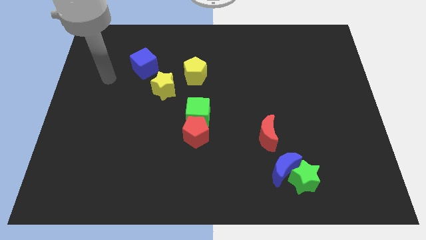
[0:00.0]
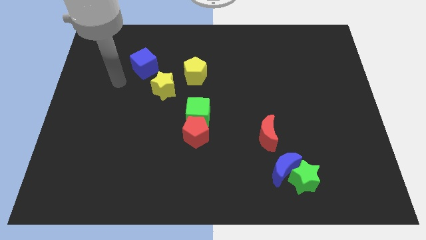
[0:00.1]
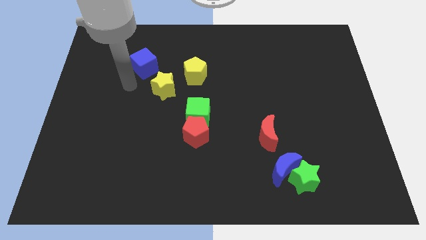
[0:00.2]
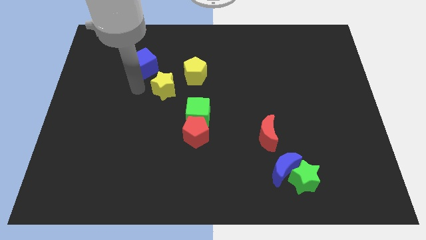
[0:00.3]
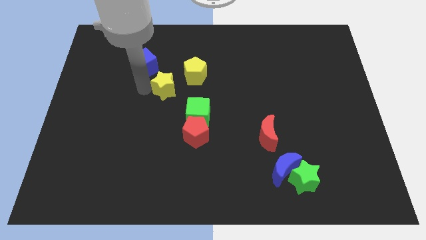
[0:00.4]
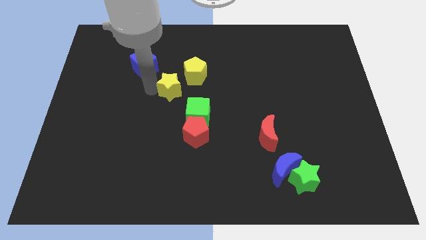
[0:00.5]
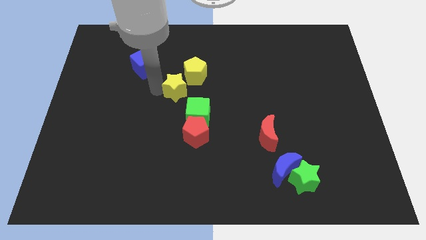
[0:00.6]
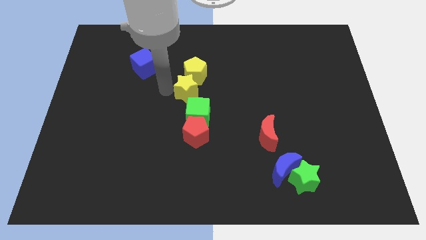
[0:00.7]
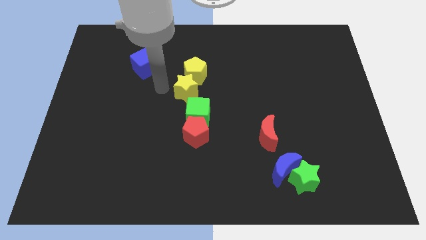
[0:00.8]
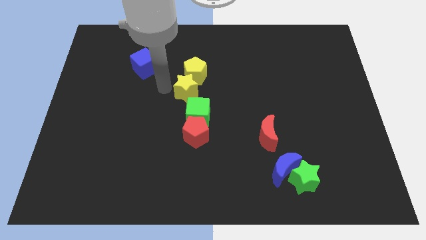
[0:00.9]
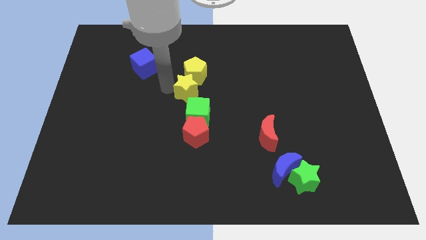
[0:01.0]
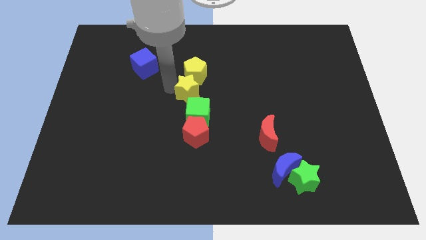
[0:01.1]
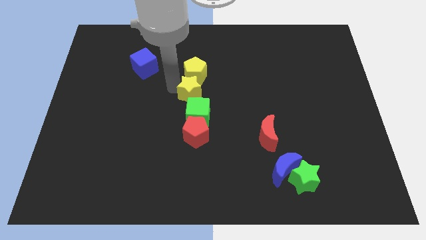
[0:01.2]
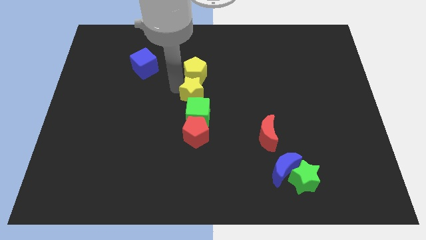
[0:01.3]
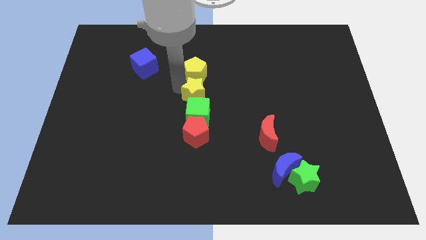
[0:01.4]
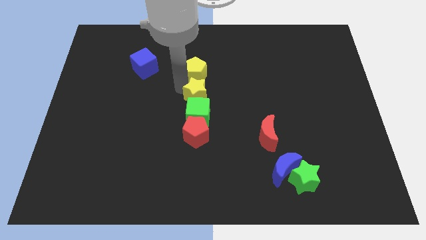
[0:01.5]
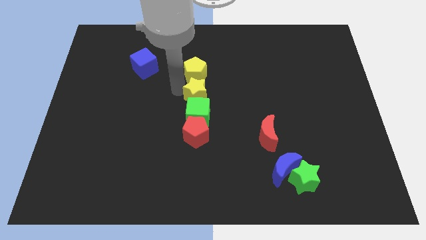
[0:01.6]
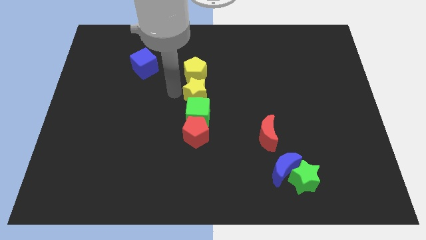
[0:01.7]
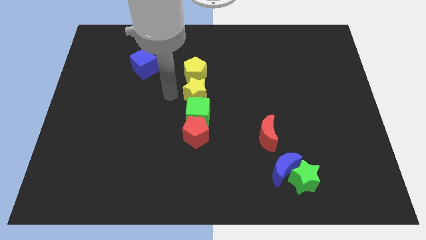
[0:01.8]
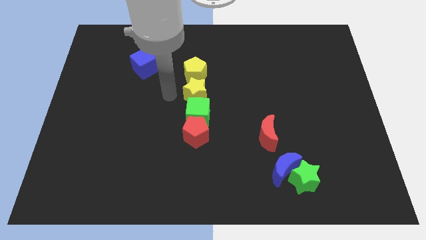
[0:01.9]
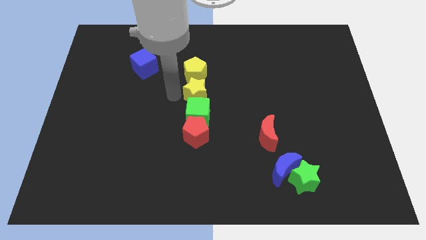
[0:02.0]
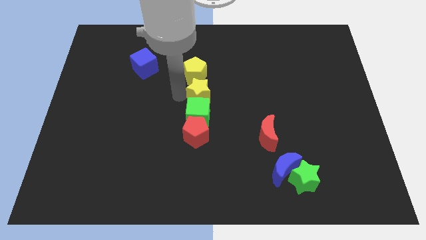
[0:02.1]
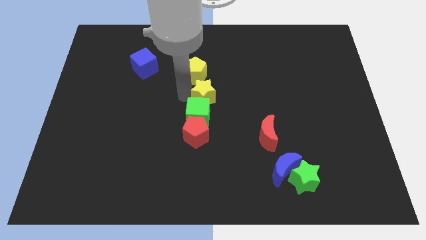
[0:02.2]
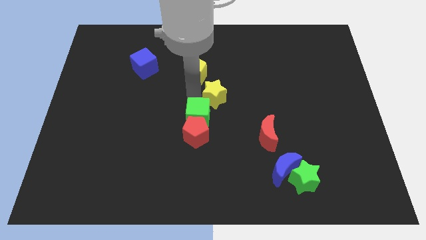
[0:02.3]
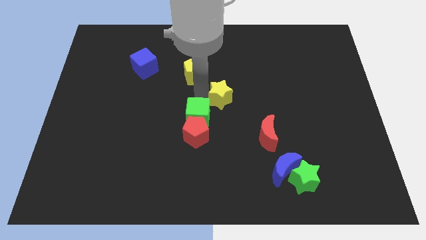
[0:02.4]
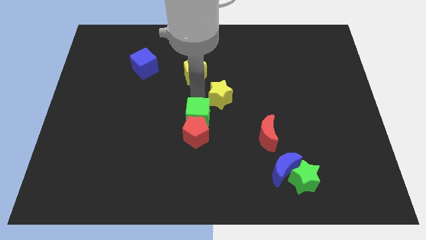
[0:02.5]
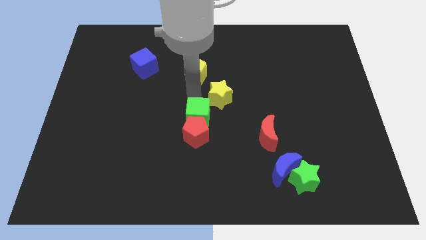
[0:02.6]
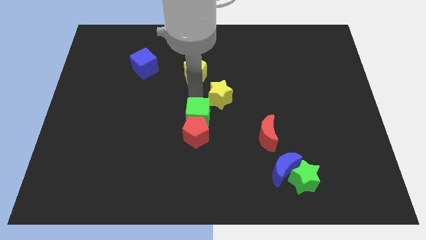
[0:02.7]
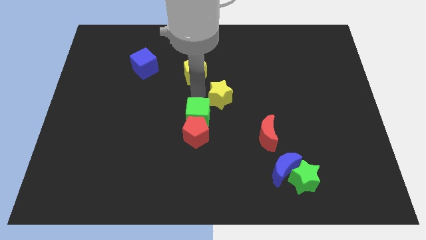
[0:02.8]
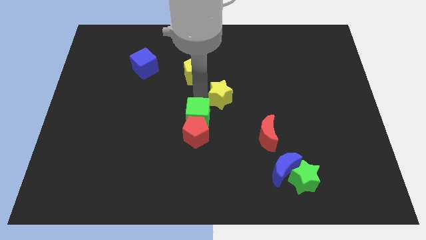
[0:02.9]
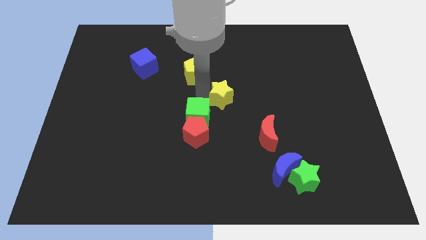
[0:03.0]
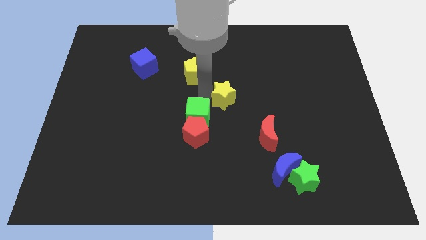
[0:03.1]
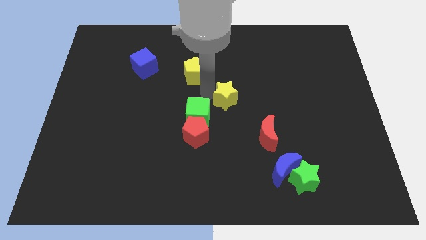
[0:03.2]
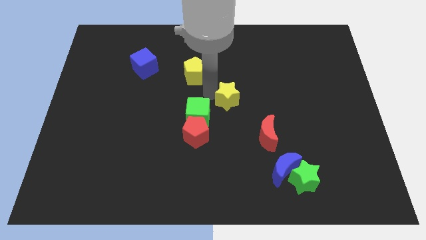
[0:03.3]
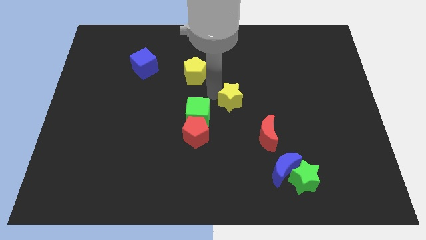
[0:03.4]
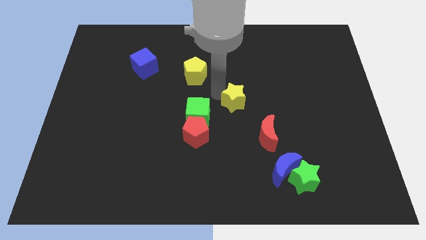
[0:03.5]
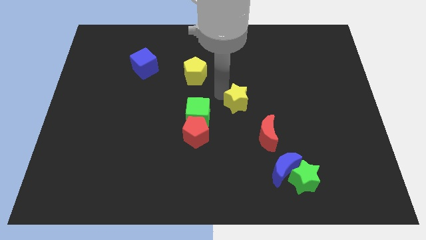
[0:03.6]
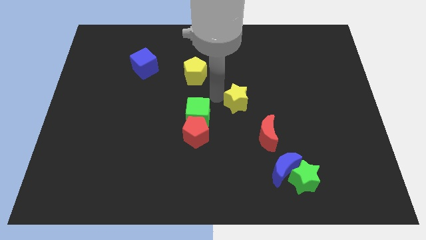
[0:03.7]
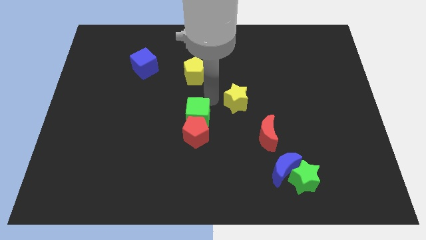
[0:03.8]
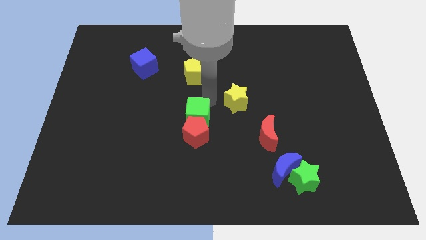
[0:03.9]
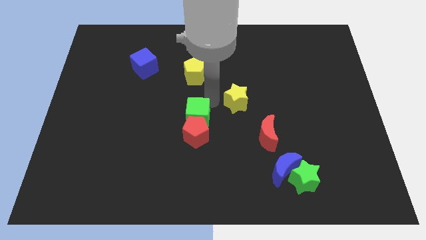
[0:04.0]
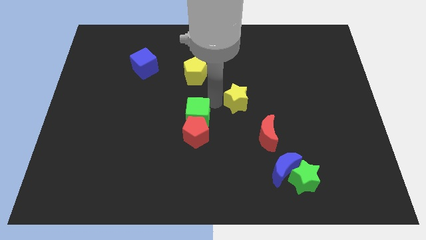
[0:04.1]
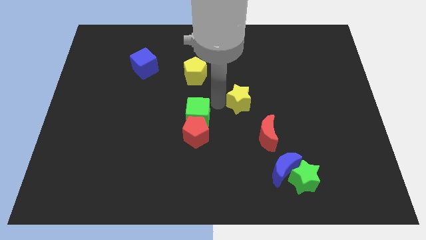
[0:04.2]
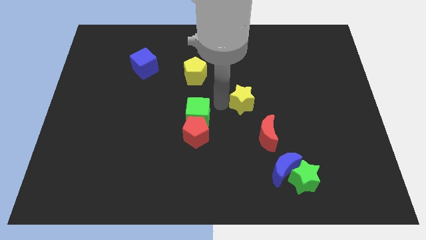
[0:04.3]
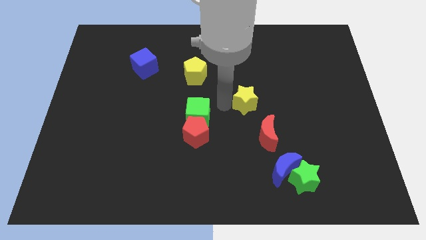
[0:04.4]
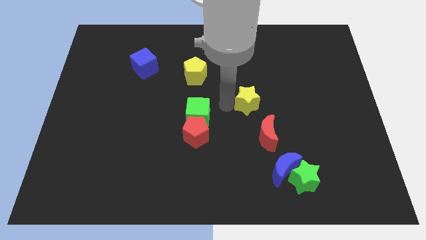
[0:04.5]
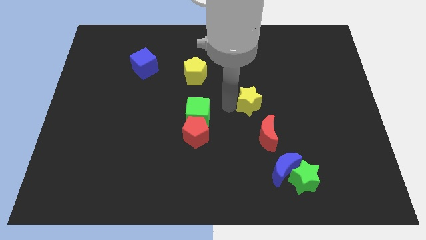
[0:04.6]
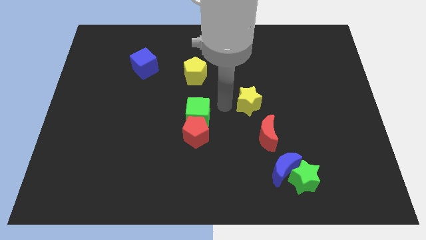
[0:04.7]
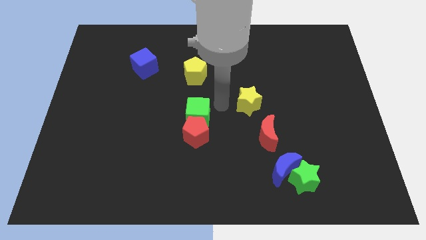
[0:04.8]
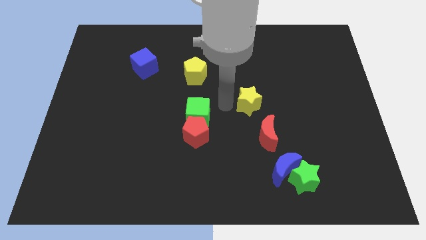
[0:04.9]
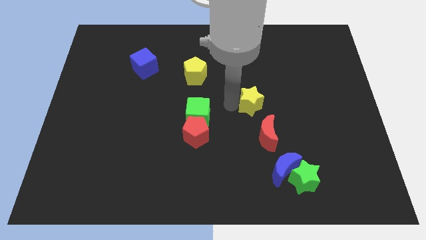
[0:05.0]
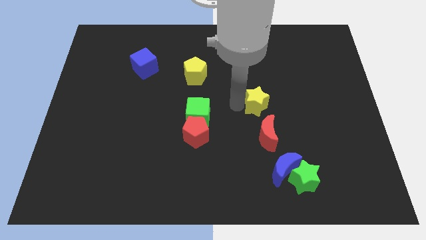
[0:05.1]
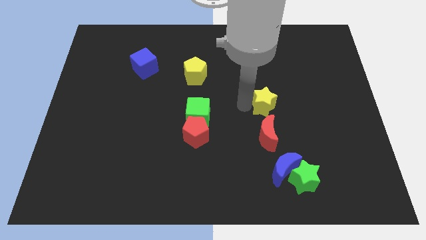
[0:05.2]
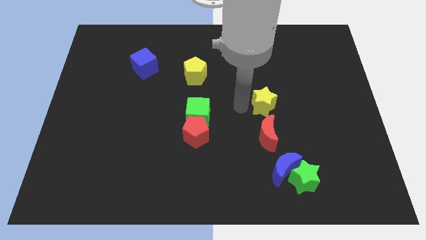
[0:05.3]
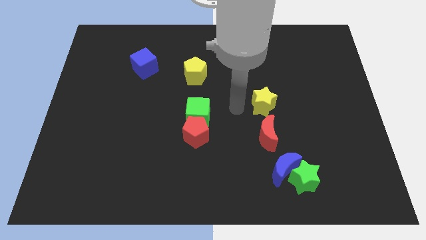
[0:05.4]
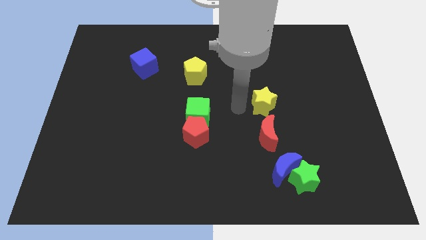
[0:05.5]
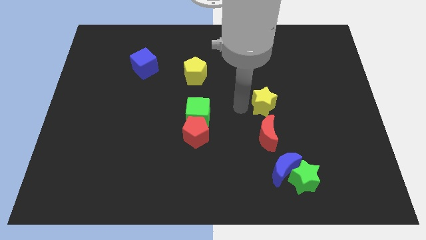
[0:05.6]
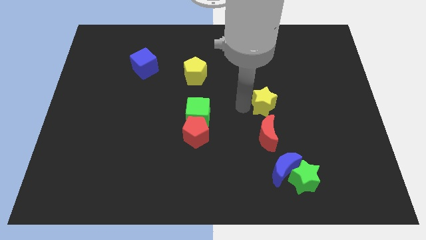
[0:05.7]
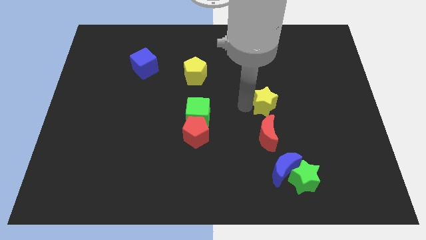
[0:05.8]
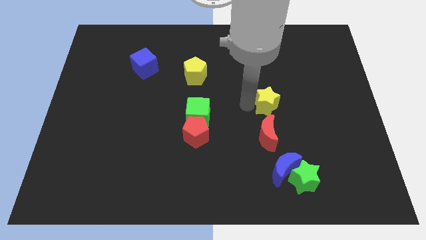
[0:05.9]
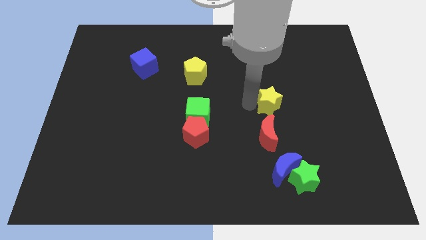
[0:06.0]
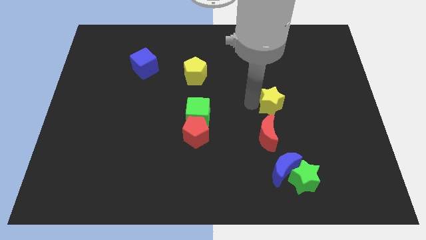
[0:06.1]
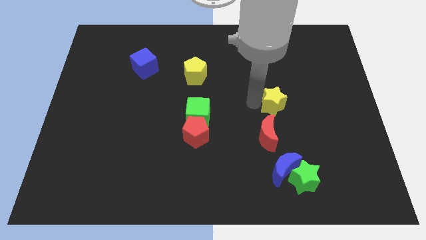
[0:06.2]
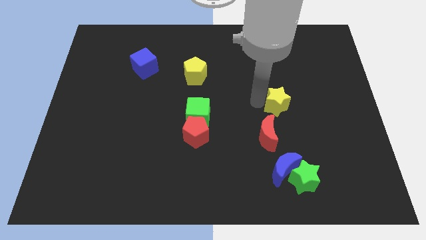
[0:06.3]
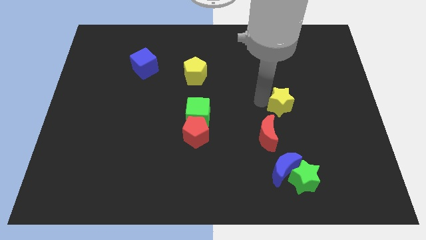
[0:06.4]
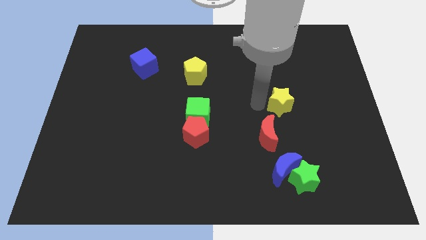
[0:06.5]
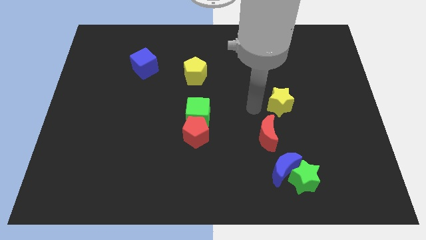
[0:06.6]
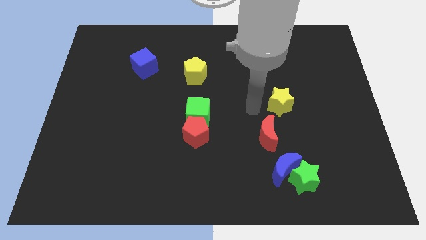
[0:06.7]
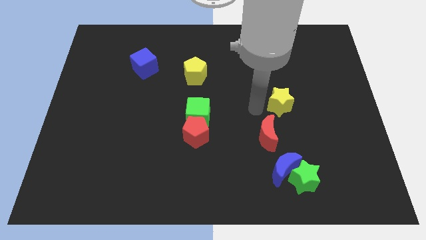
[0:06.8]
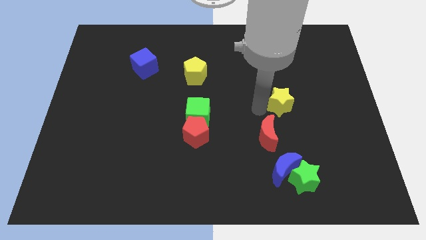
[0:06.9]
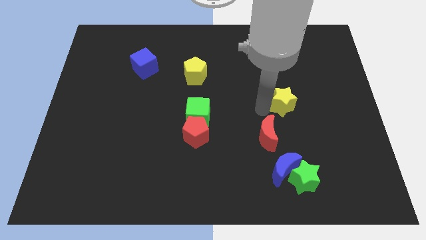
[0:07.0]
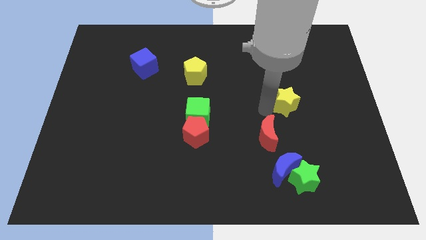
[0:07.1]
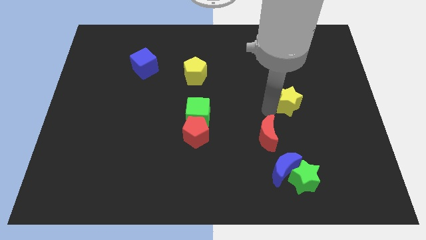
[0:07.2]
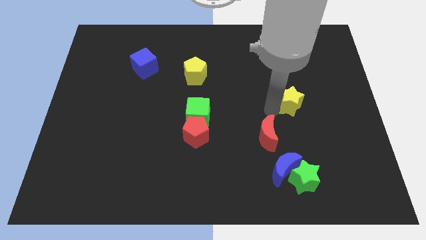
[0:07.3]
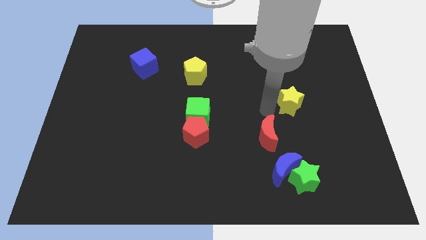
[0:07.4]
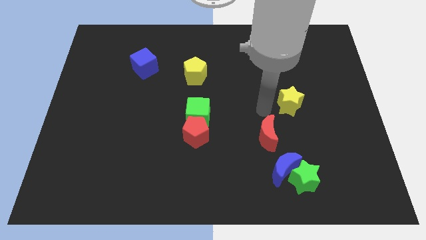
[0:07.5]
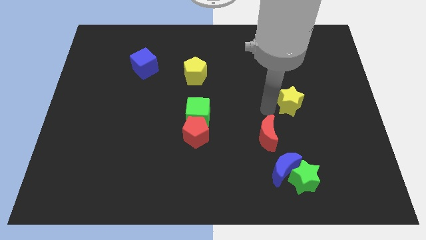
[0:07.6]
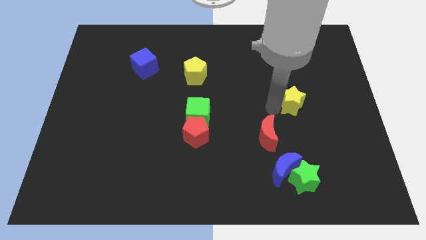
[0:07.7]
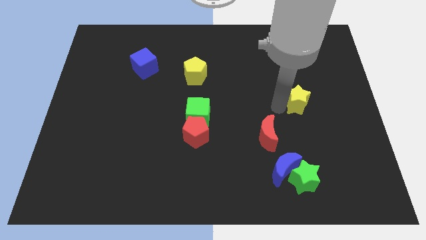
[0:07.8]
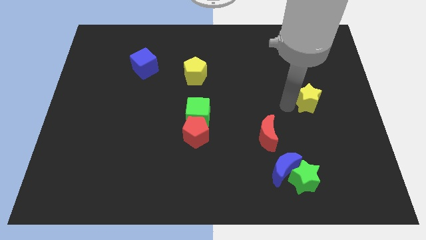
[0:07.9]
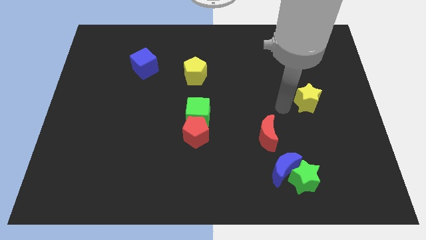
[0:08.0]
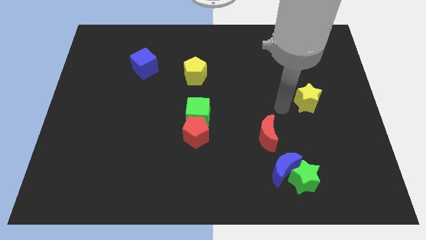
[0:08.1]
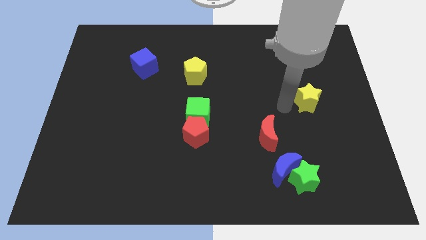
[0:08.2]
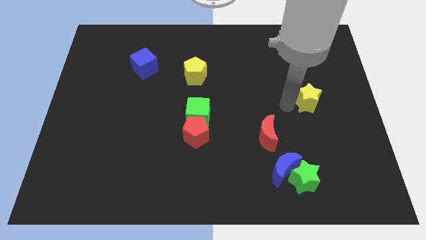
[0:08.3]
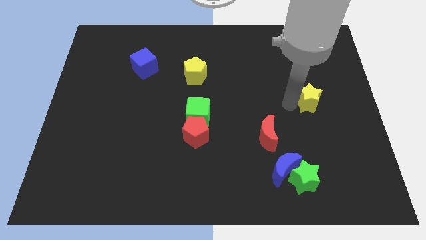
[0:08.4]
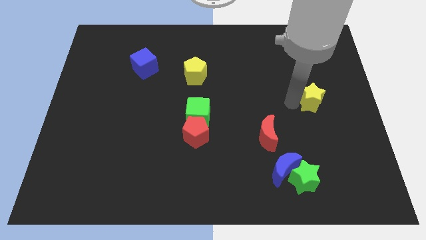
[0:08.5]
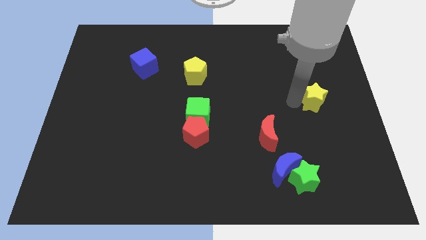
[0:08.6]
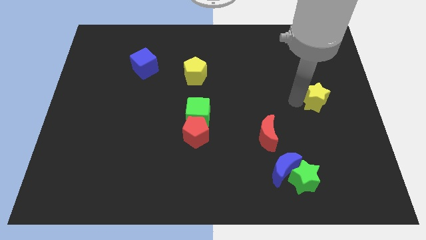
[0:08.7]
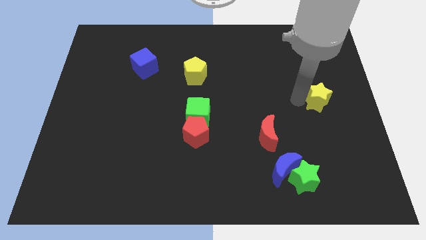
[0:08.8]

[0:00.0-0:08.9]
move the yellow star to the center right
